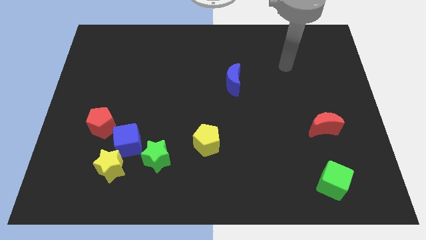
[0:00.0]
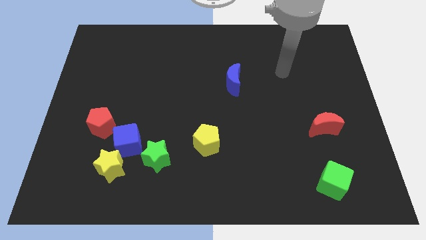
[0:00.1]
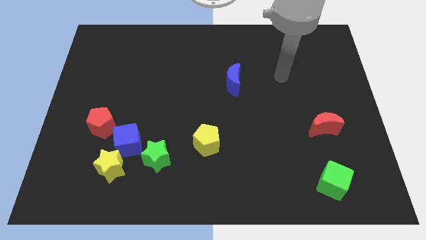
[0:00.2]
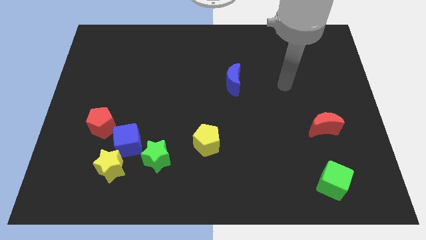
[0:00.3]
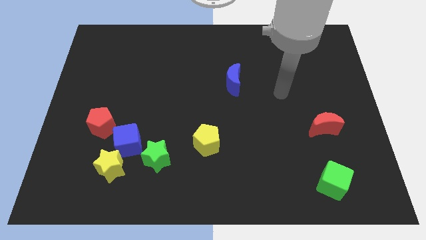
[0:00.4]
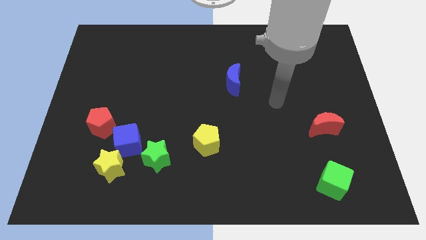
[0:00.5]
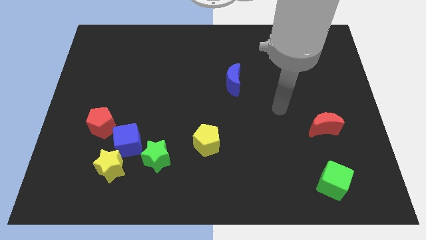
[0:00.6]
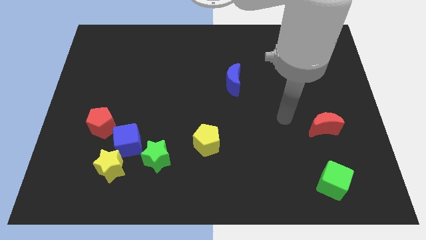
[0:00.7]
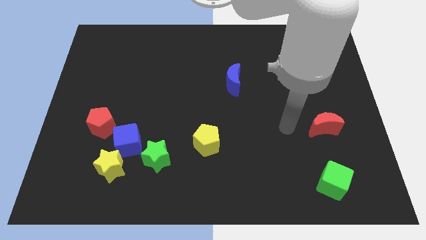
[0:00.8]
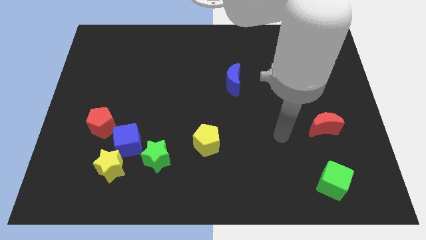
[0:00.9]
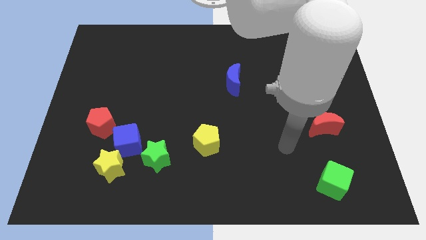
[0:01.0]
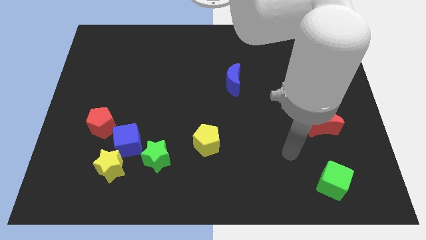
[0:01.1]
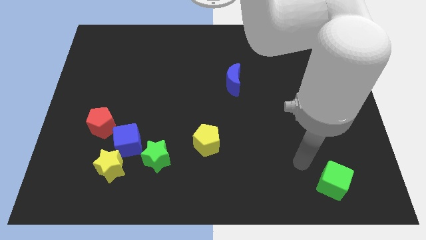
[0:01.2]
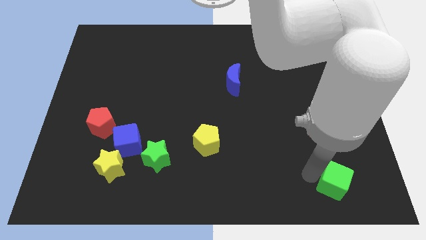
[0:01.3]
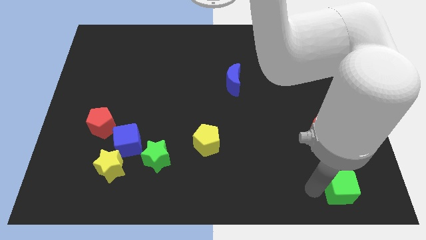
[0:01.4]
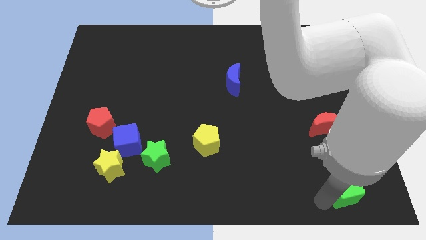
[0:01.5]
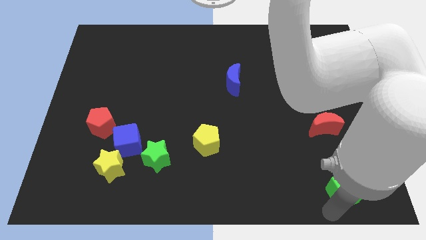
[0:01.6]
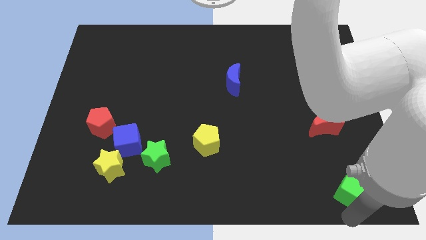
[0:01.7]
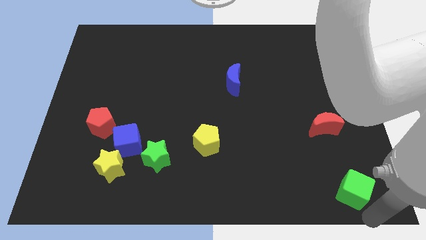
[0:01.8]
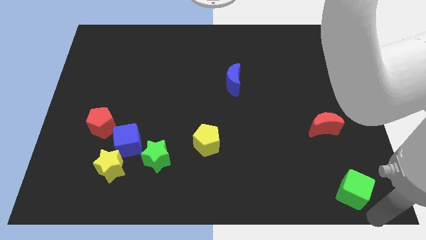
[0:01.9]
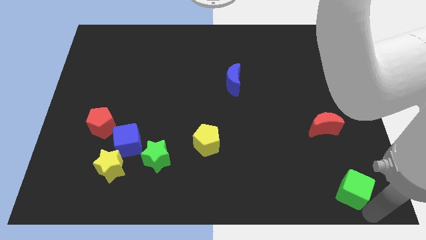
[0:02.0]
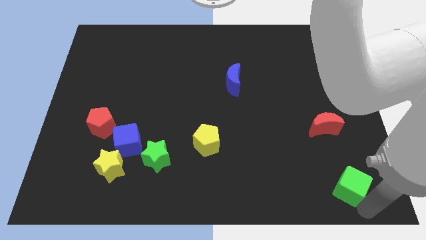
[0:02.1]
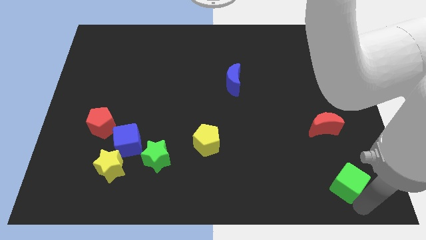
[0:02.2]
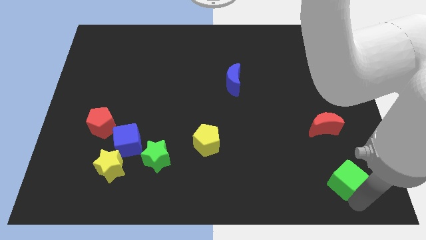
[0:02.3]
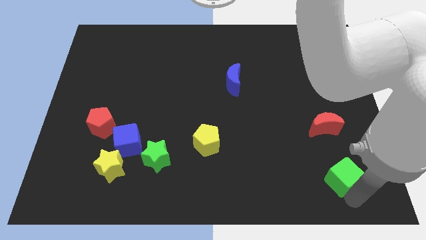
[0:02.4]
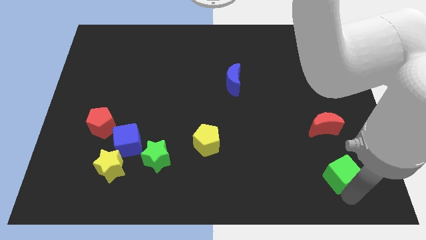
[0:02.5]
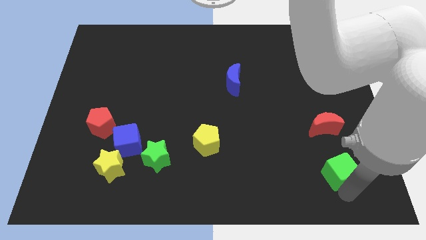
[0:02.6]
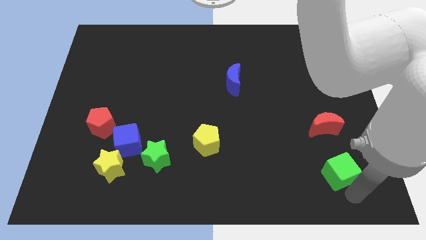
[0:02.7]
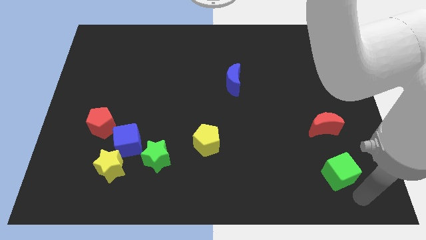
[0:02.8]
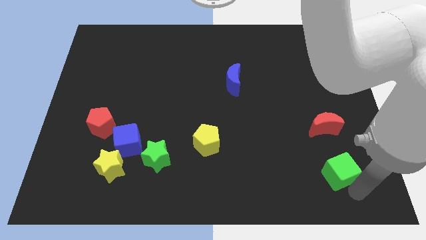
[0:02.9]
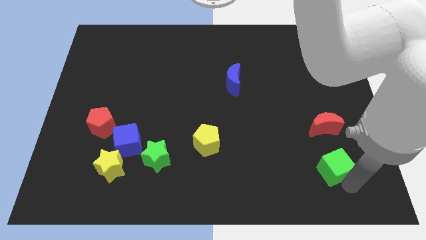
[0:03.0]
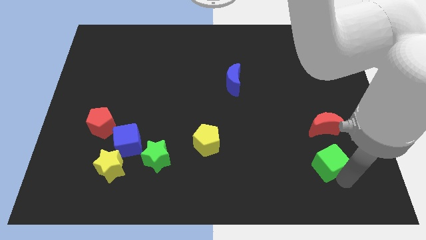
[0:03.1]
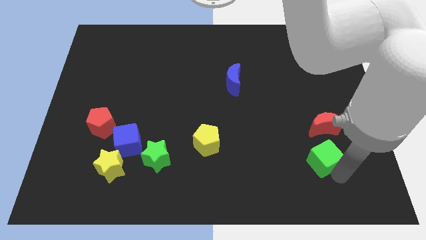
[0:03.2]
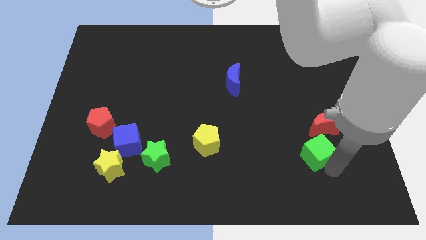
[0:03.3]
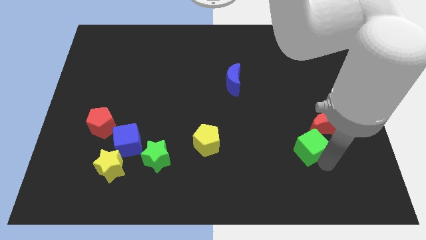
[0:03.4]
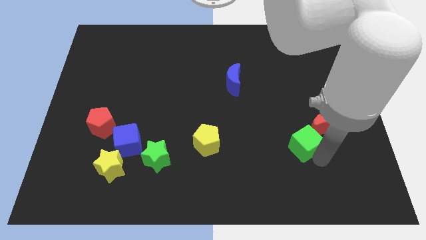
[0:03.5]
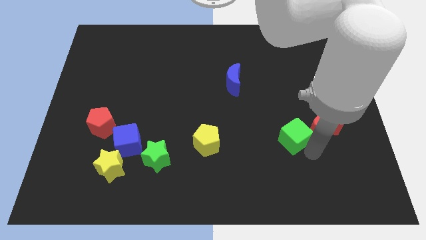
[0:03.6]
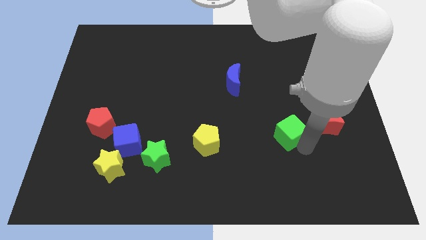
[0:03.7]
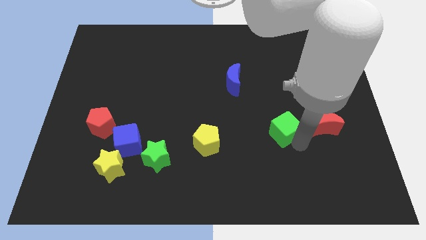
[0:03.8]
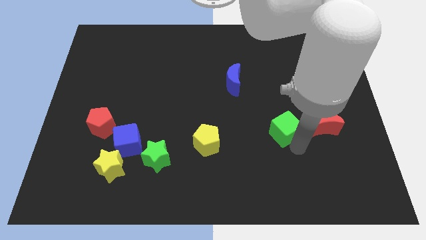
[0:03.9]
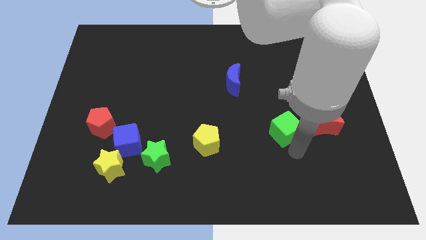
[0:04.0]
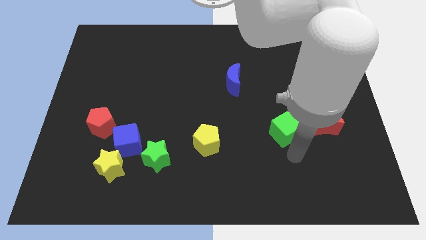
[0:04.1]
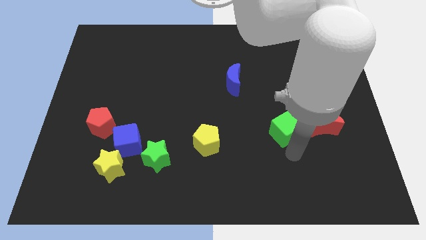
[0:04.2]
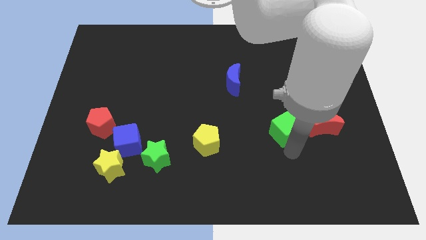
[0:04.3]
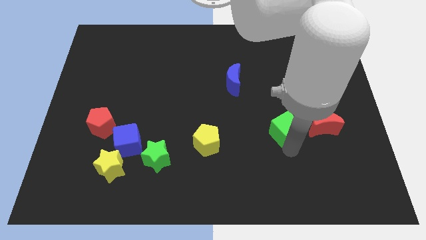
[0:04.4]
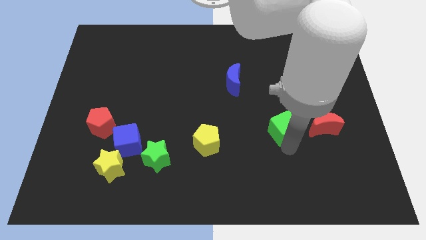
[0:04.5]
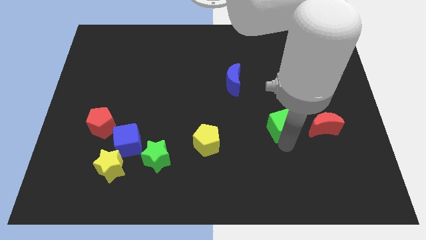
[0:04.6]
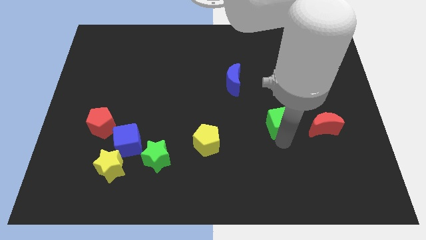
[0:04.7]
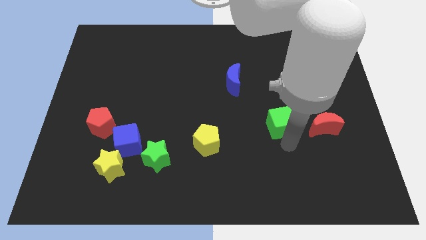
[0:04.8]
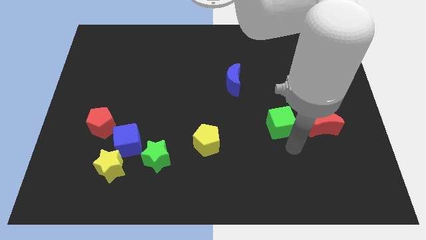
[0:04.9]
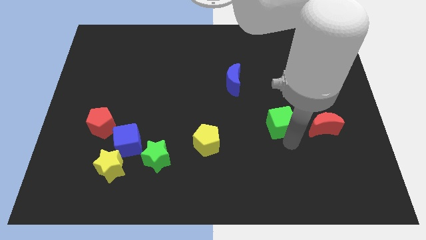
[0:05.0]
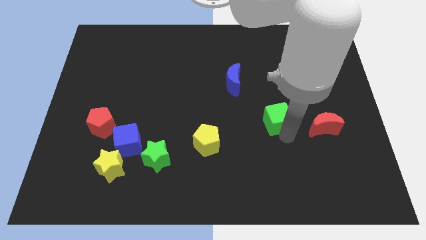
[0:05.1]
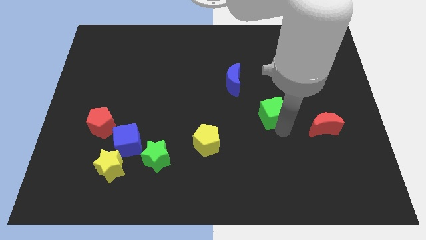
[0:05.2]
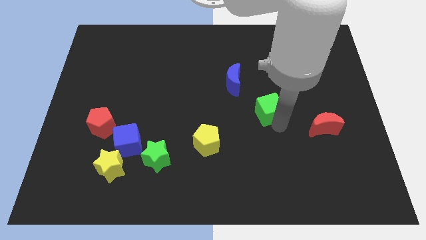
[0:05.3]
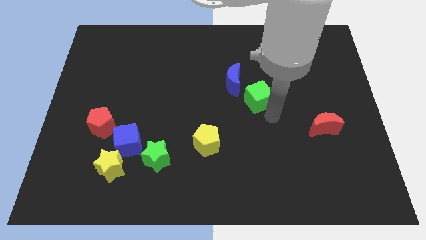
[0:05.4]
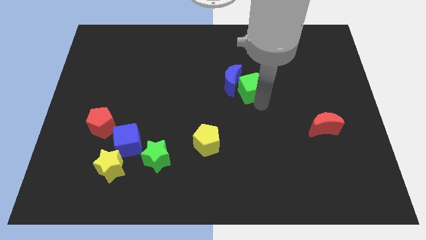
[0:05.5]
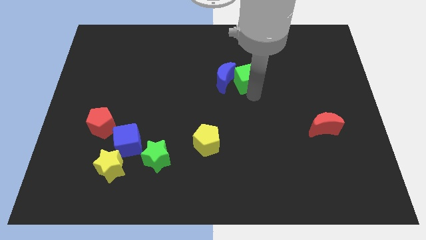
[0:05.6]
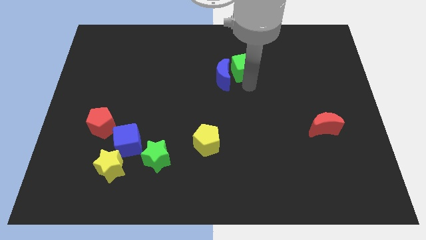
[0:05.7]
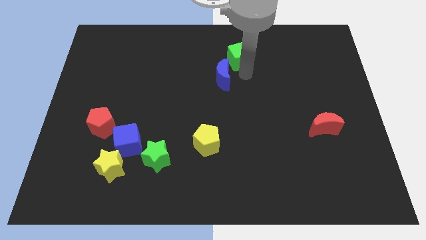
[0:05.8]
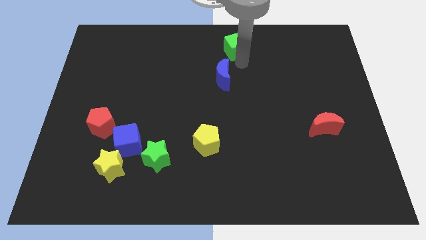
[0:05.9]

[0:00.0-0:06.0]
put the green cube to the top

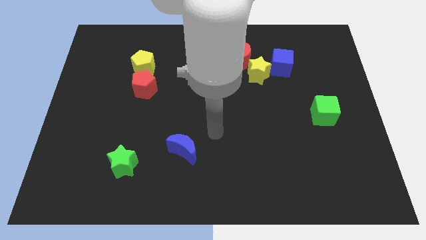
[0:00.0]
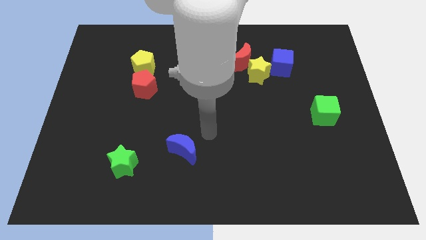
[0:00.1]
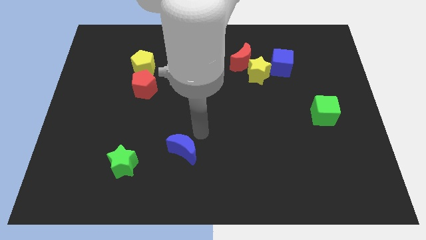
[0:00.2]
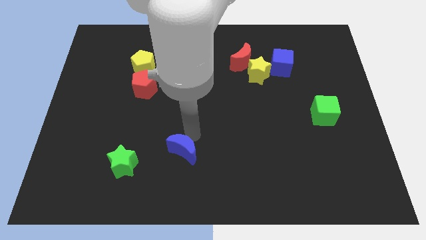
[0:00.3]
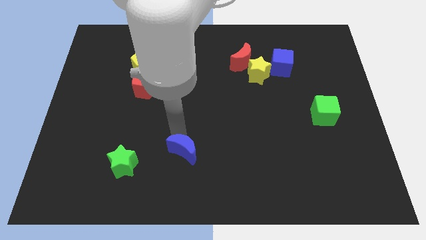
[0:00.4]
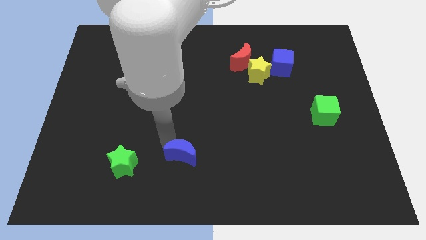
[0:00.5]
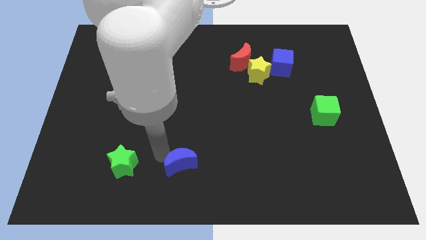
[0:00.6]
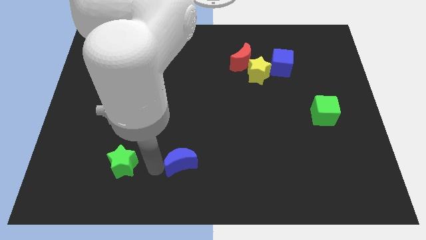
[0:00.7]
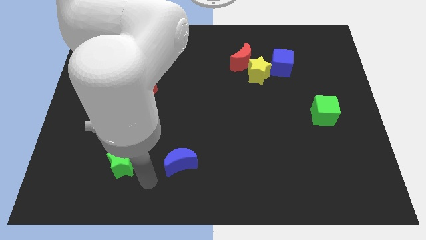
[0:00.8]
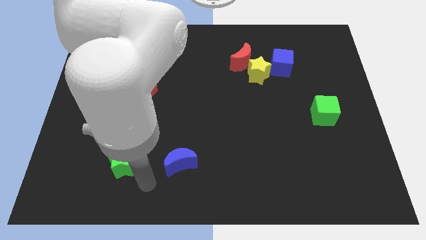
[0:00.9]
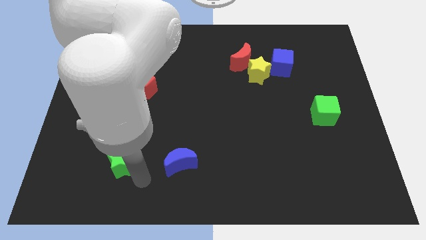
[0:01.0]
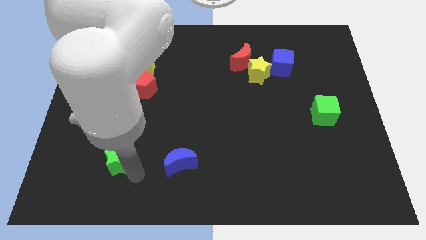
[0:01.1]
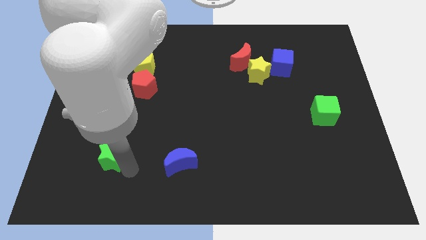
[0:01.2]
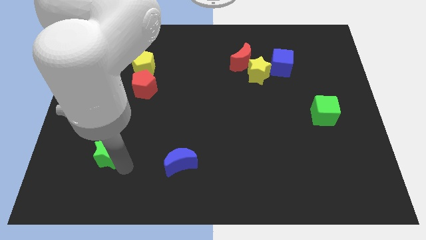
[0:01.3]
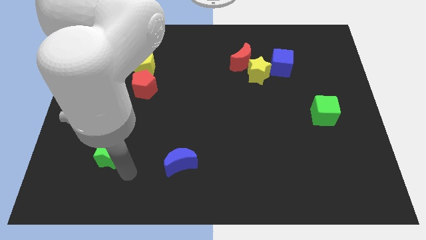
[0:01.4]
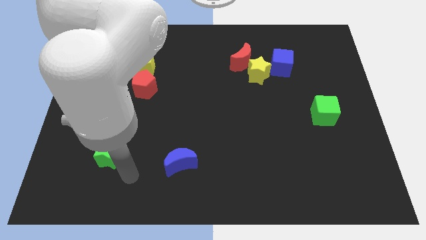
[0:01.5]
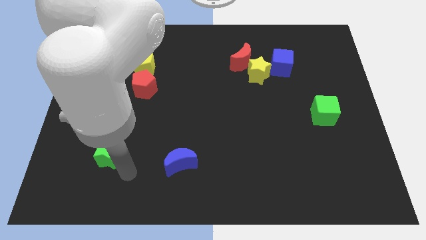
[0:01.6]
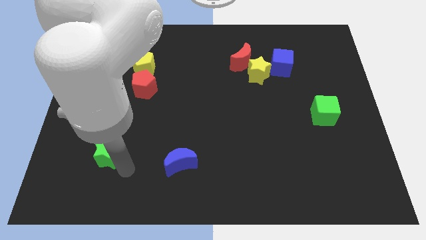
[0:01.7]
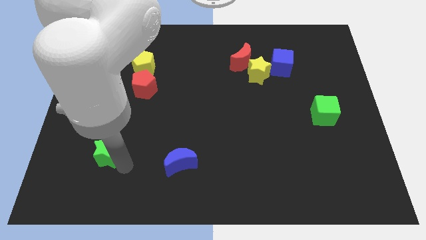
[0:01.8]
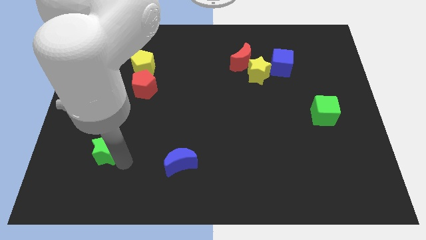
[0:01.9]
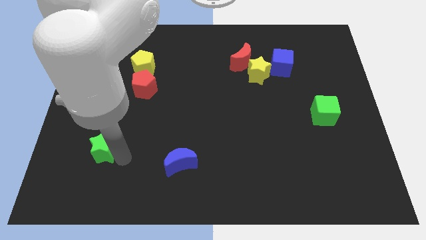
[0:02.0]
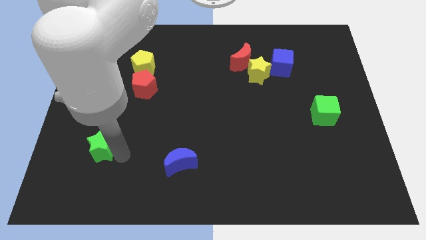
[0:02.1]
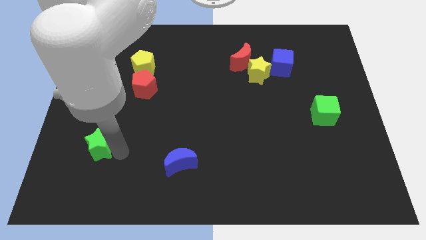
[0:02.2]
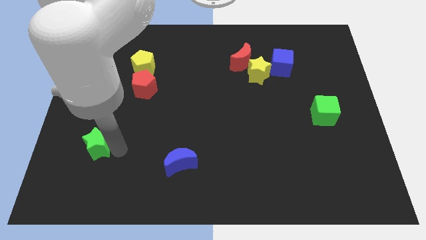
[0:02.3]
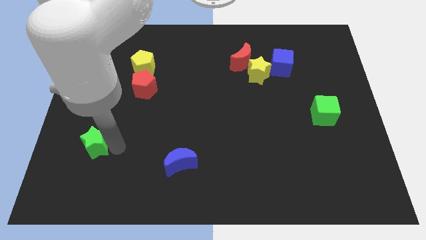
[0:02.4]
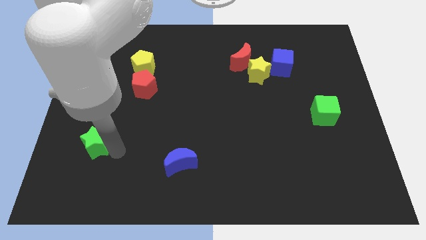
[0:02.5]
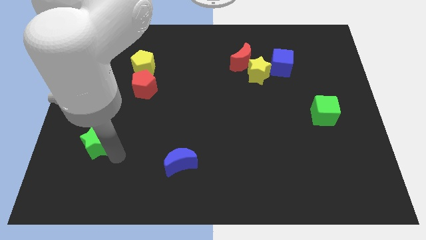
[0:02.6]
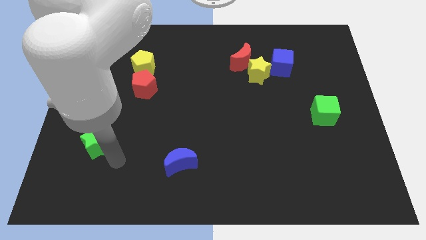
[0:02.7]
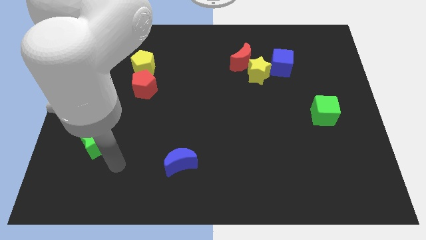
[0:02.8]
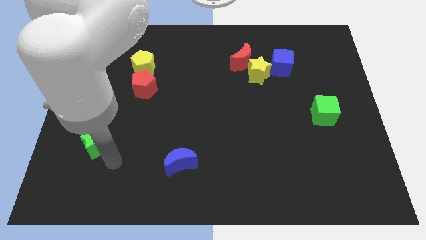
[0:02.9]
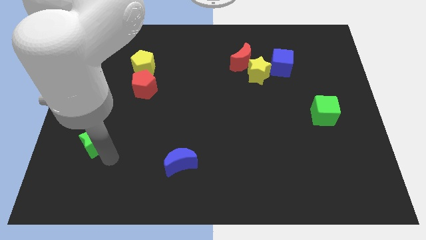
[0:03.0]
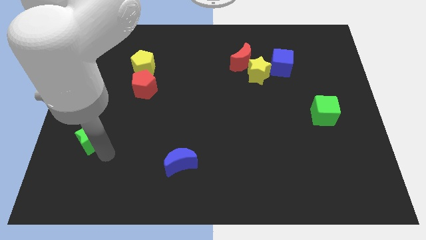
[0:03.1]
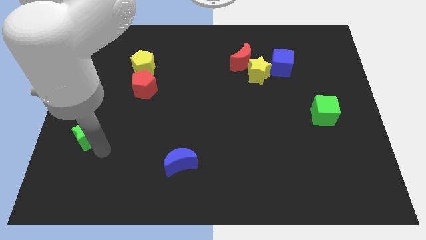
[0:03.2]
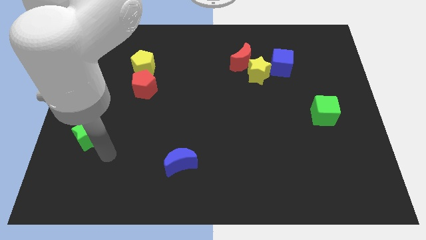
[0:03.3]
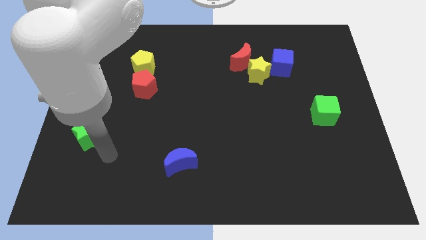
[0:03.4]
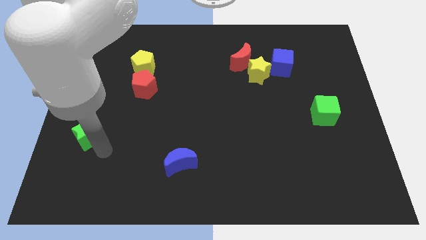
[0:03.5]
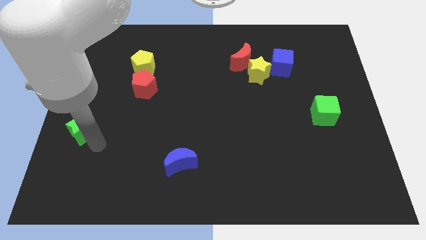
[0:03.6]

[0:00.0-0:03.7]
move the green star to the center left
